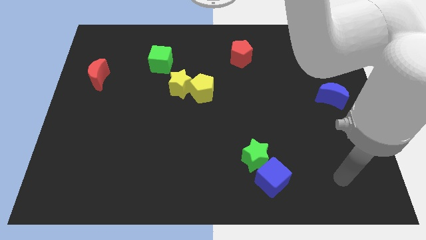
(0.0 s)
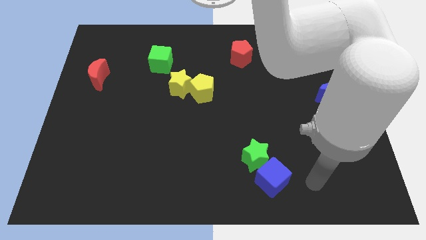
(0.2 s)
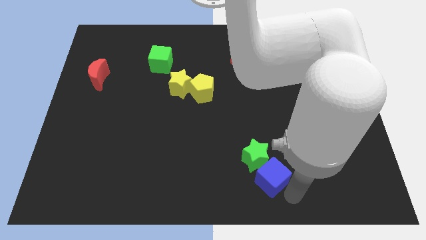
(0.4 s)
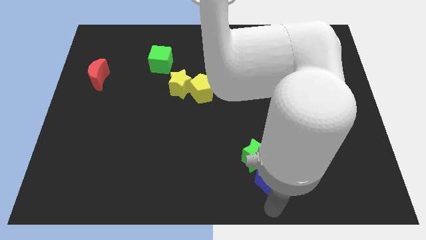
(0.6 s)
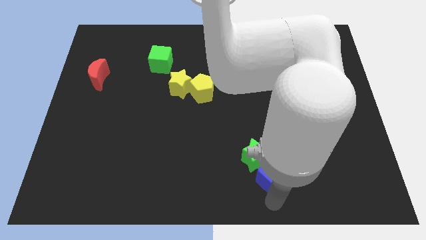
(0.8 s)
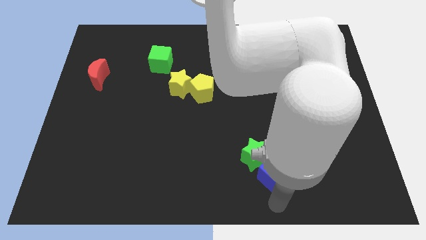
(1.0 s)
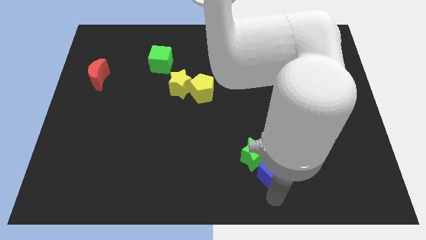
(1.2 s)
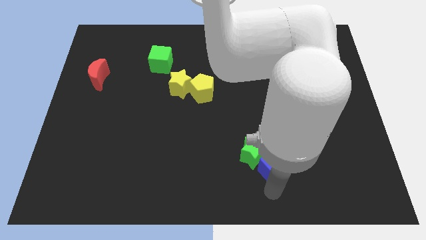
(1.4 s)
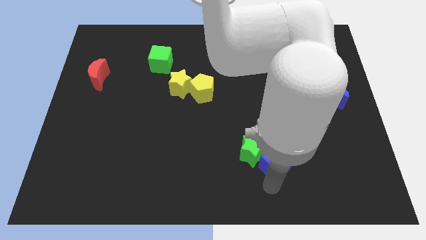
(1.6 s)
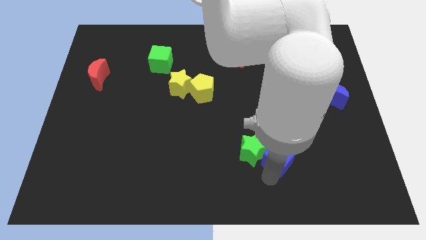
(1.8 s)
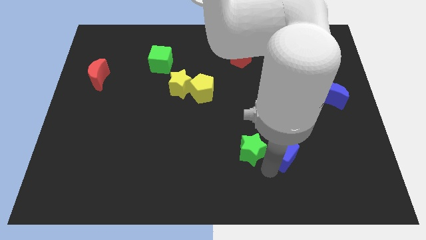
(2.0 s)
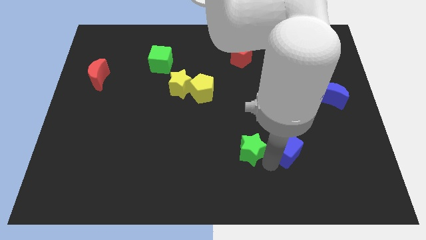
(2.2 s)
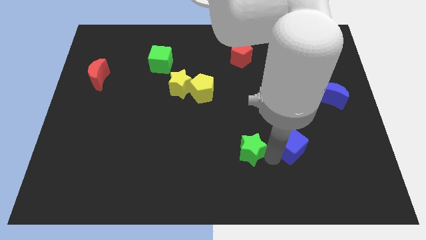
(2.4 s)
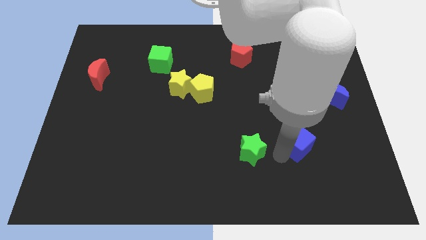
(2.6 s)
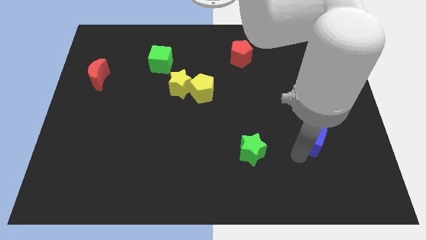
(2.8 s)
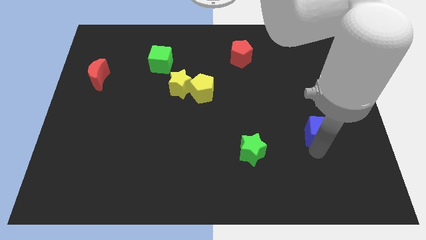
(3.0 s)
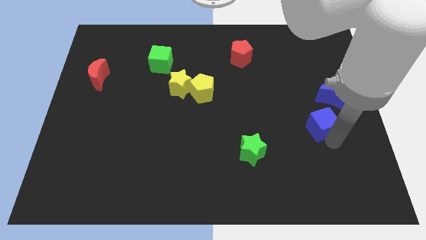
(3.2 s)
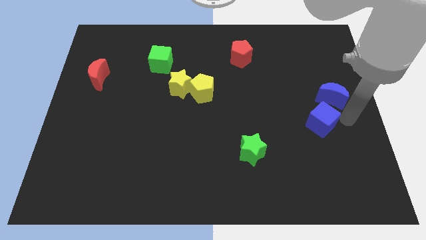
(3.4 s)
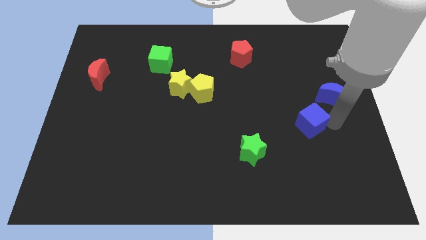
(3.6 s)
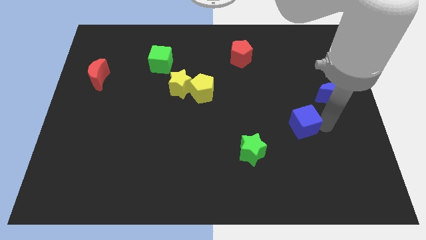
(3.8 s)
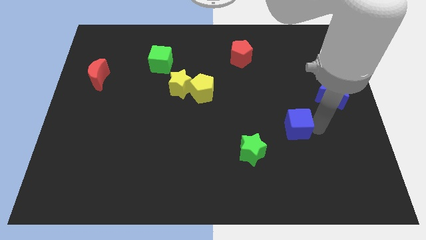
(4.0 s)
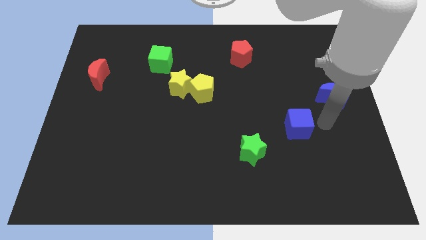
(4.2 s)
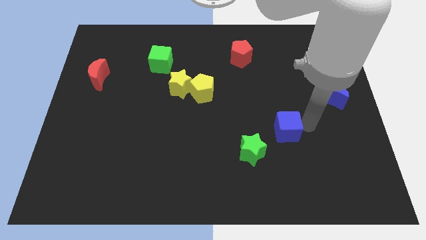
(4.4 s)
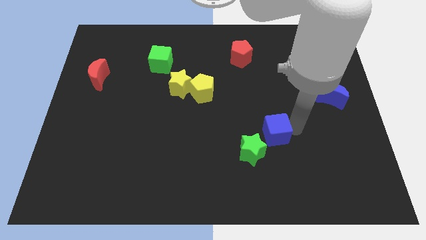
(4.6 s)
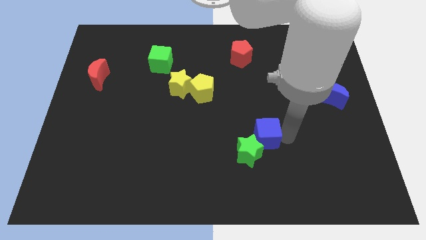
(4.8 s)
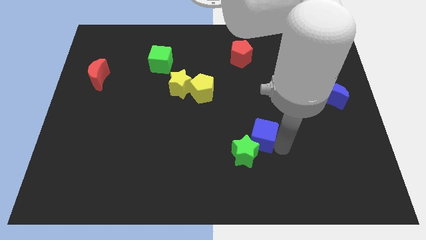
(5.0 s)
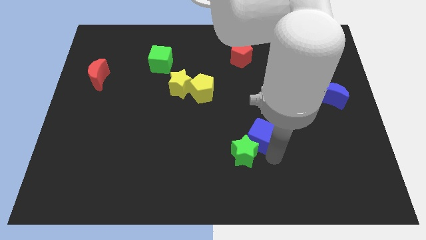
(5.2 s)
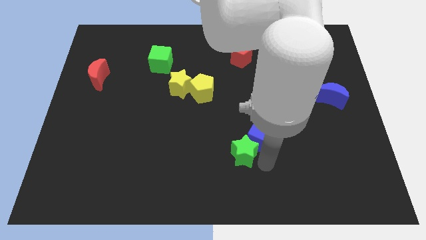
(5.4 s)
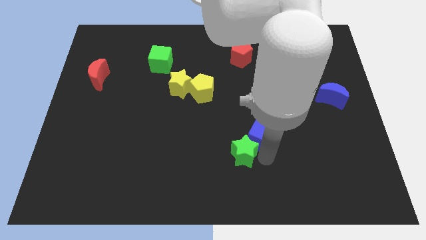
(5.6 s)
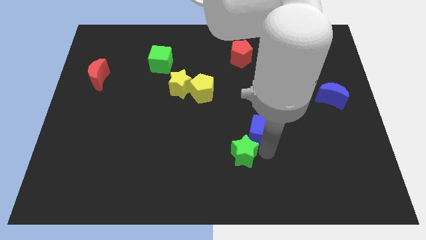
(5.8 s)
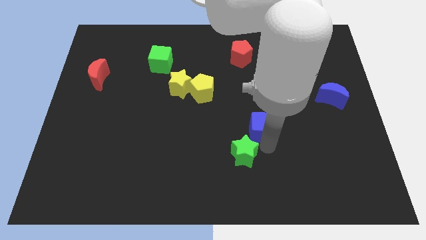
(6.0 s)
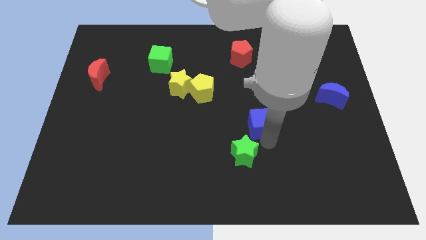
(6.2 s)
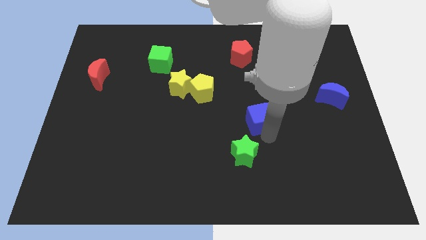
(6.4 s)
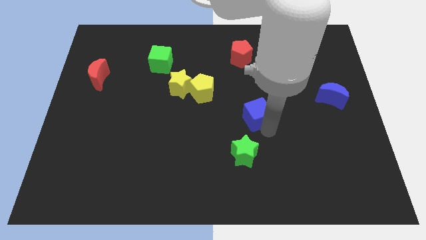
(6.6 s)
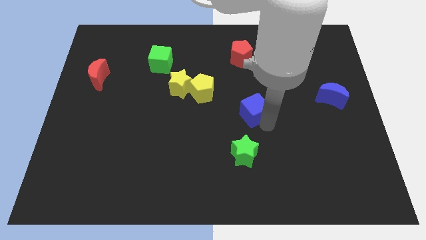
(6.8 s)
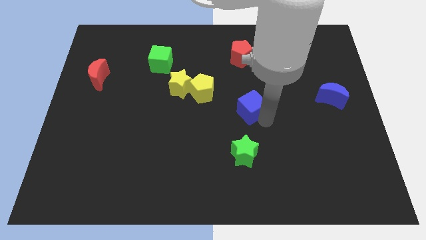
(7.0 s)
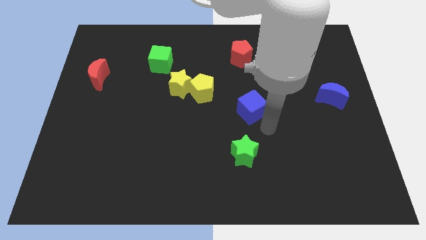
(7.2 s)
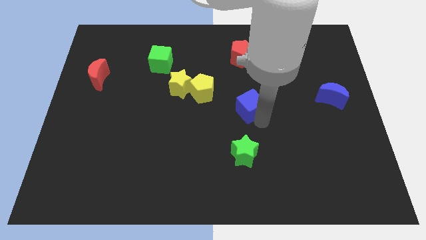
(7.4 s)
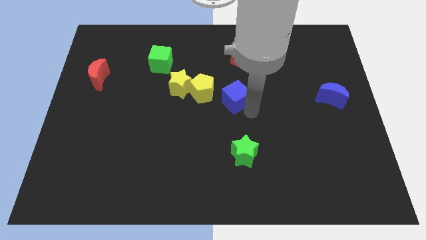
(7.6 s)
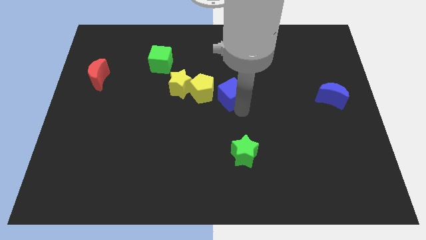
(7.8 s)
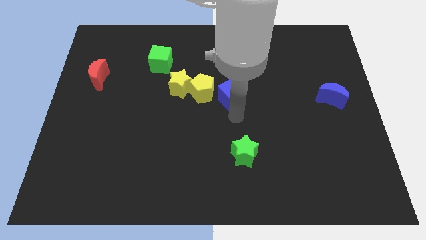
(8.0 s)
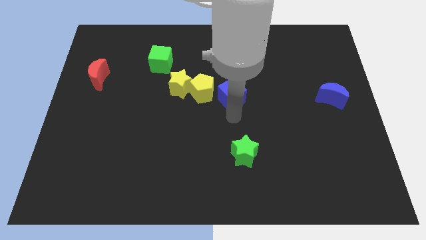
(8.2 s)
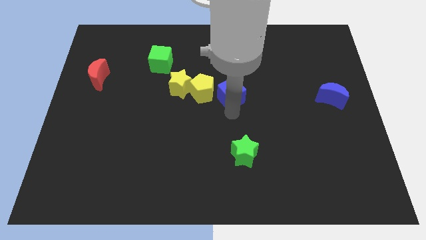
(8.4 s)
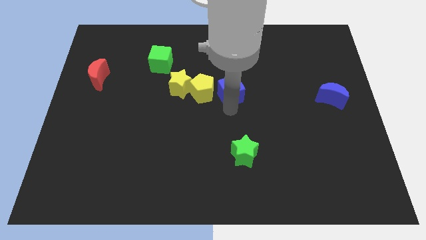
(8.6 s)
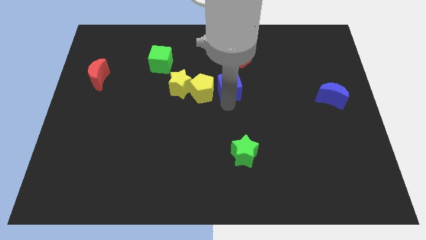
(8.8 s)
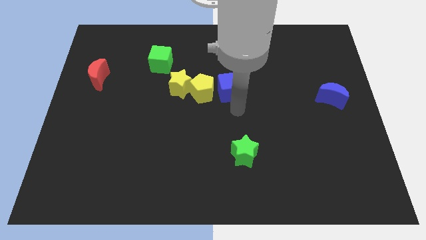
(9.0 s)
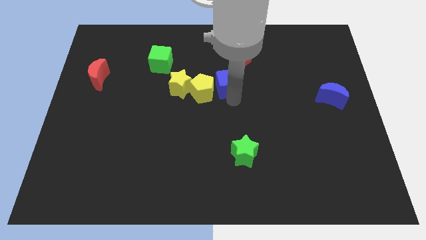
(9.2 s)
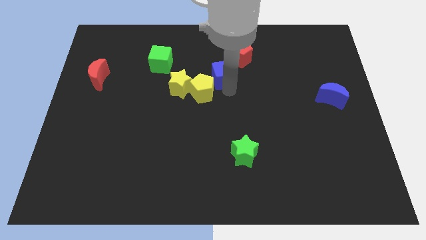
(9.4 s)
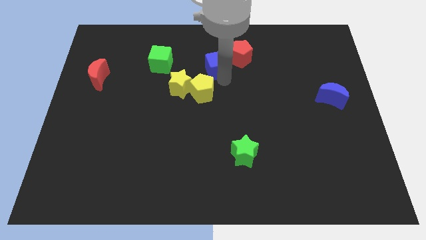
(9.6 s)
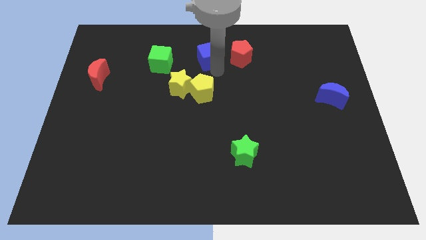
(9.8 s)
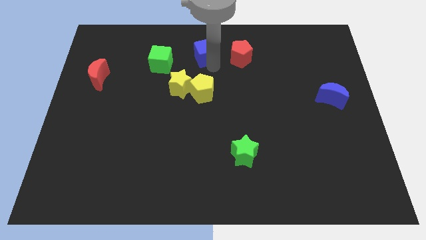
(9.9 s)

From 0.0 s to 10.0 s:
put the blue cube to the towards your base

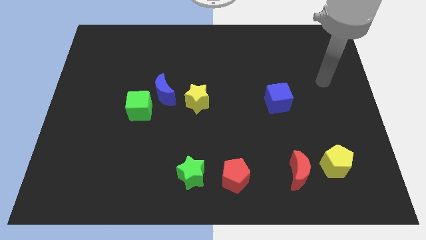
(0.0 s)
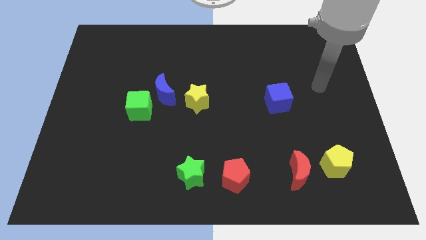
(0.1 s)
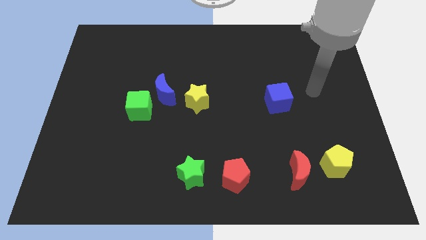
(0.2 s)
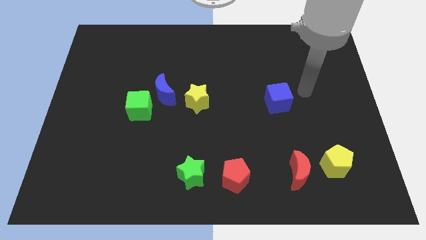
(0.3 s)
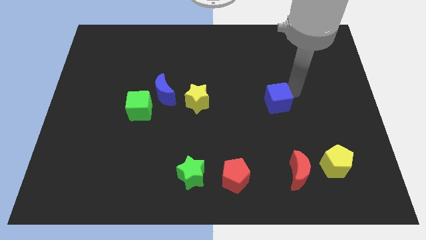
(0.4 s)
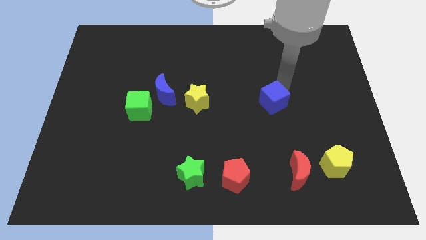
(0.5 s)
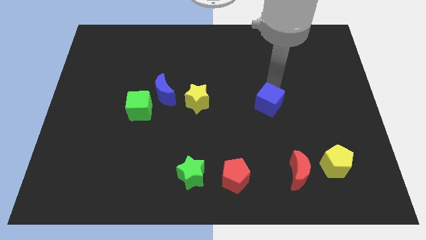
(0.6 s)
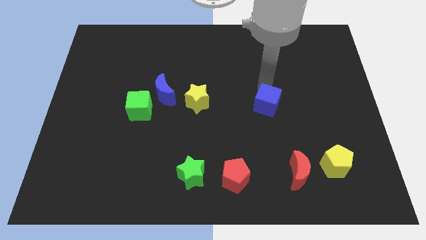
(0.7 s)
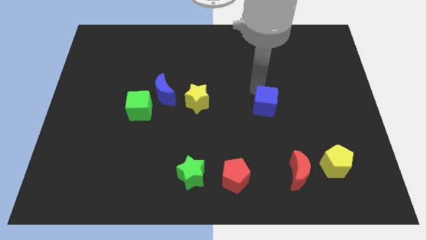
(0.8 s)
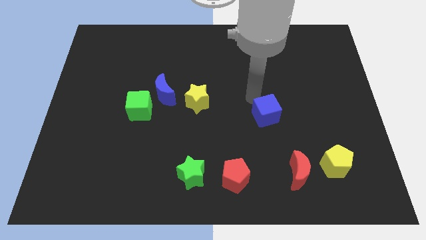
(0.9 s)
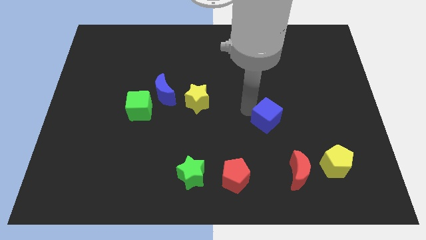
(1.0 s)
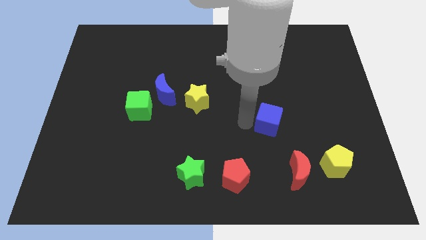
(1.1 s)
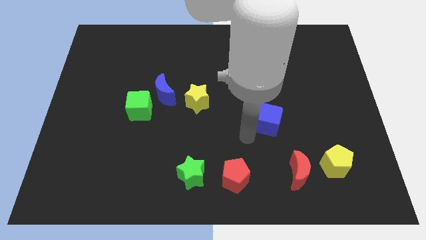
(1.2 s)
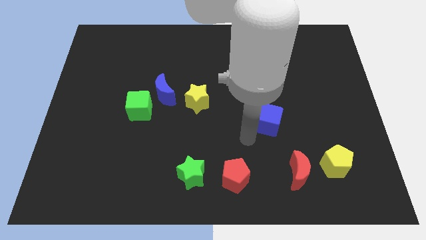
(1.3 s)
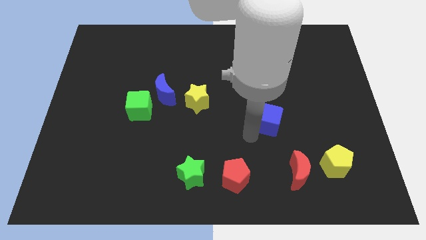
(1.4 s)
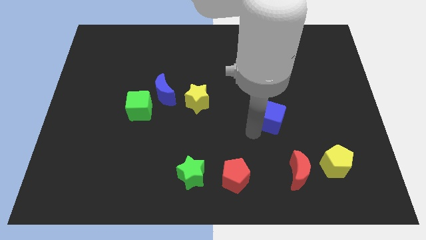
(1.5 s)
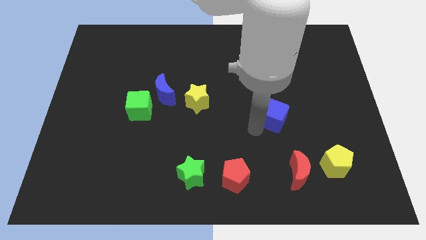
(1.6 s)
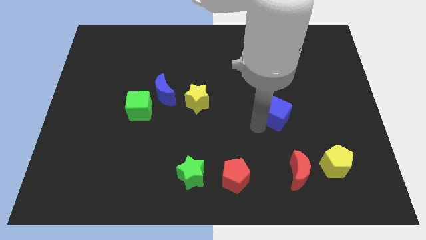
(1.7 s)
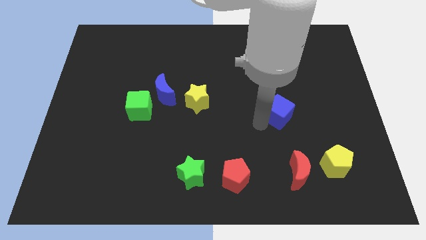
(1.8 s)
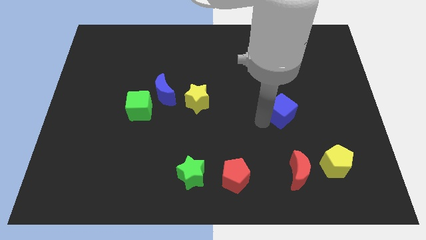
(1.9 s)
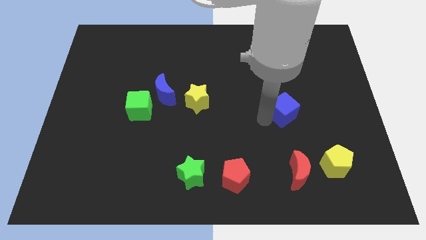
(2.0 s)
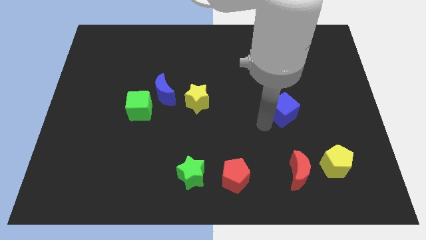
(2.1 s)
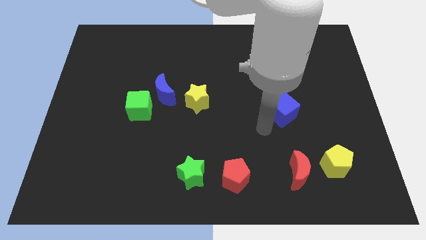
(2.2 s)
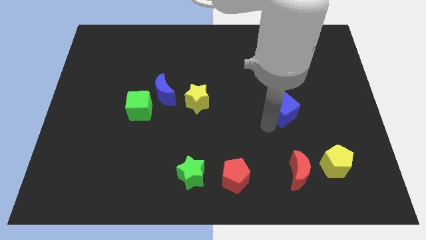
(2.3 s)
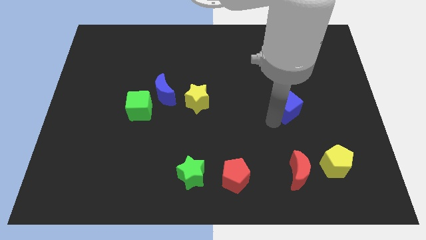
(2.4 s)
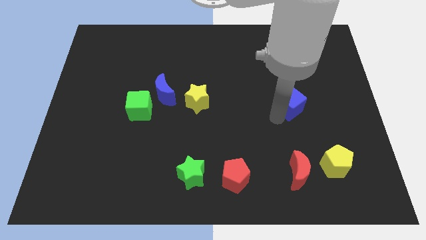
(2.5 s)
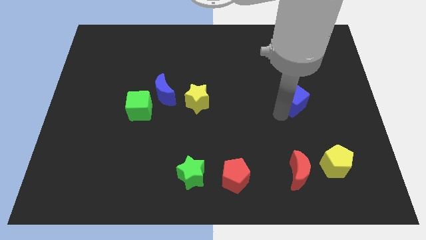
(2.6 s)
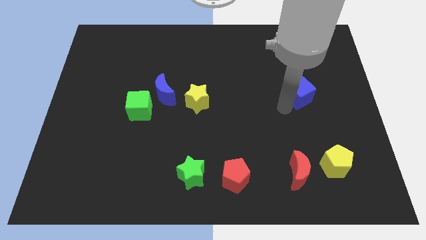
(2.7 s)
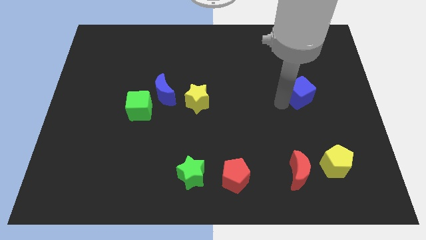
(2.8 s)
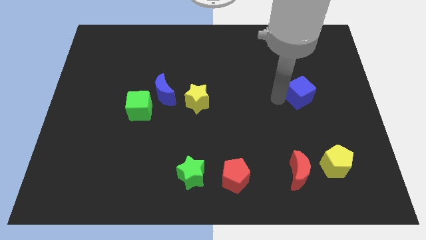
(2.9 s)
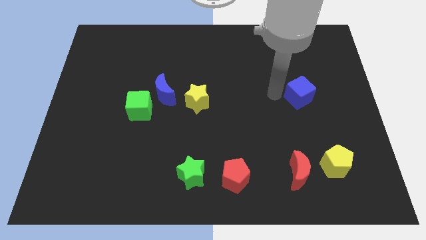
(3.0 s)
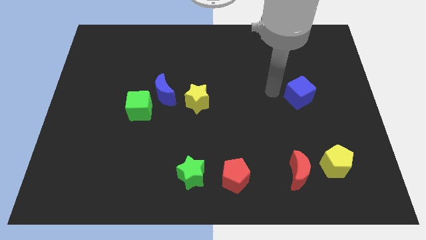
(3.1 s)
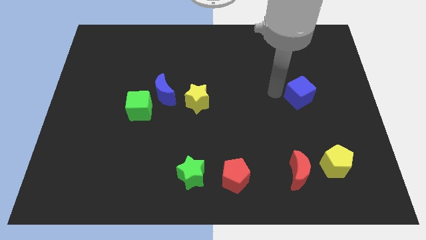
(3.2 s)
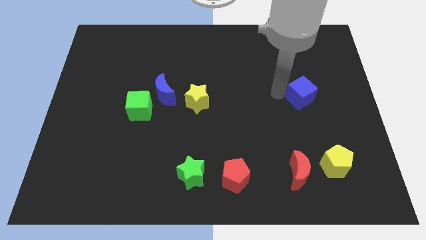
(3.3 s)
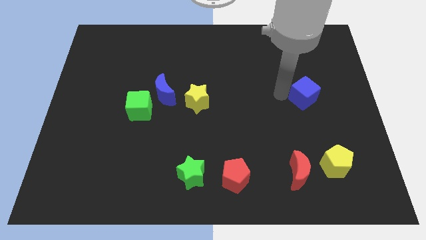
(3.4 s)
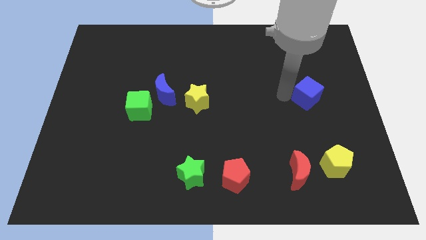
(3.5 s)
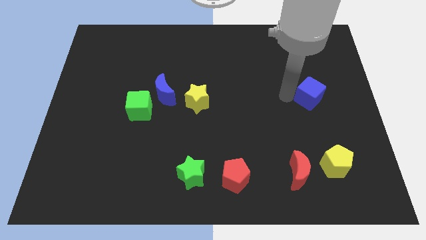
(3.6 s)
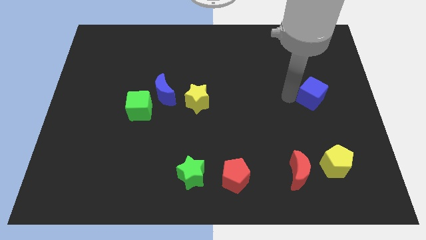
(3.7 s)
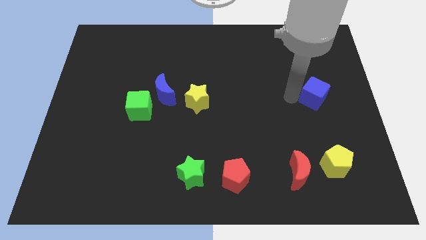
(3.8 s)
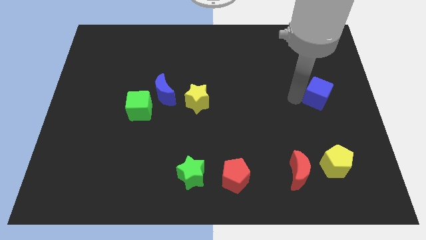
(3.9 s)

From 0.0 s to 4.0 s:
put the blue cube to the right side of the board
